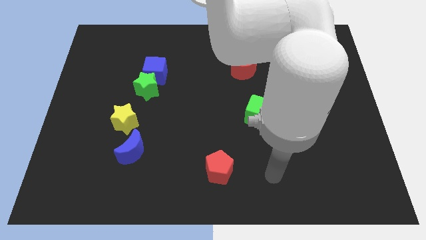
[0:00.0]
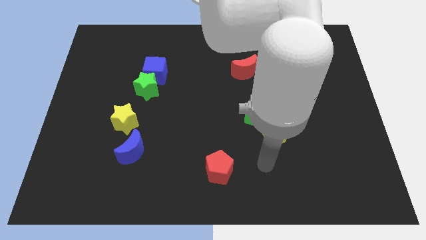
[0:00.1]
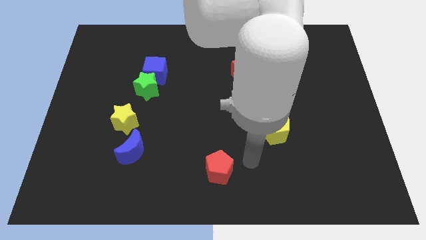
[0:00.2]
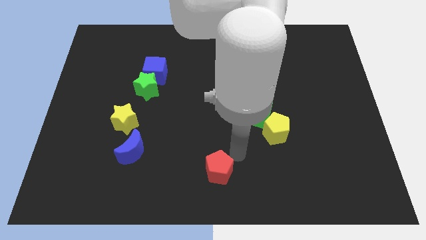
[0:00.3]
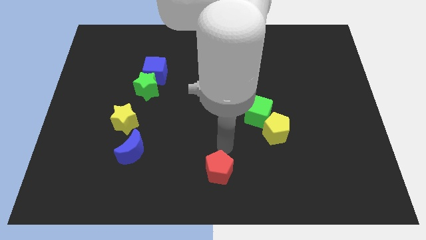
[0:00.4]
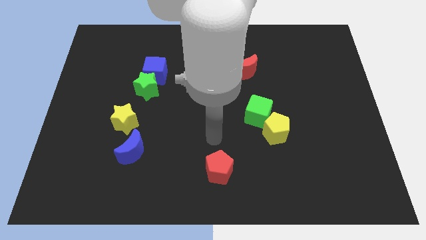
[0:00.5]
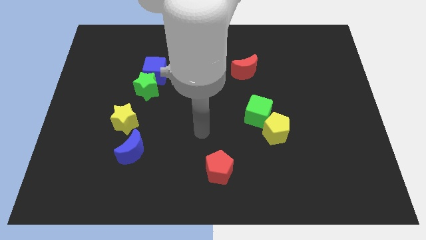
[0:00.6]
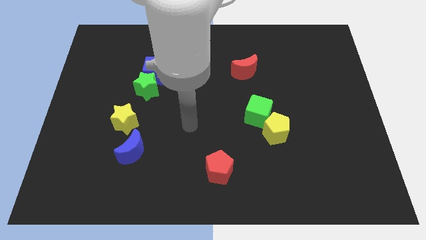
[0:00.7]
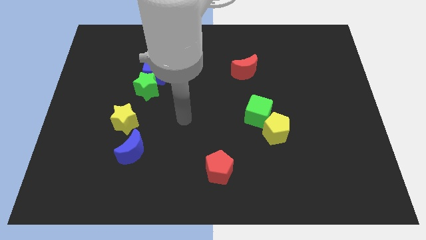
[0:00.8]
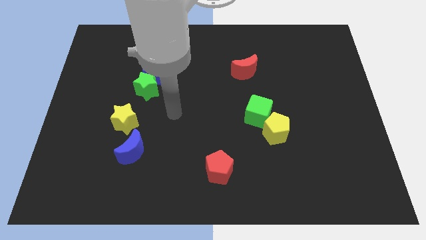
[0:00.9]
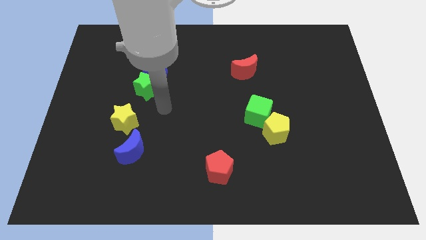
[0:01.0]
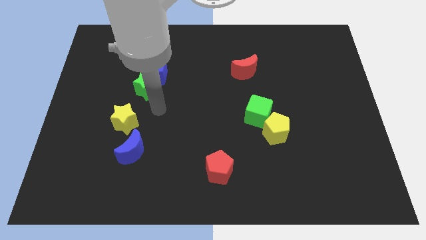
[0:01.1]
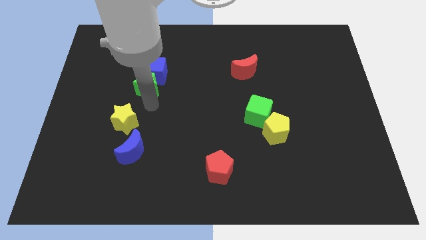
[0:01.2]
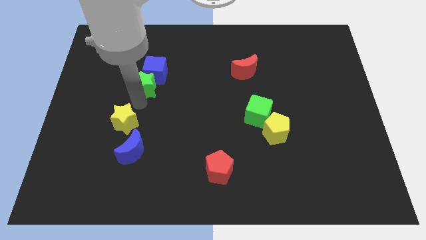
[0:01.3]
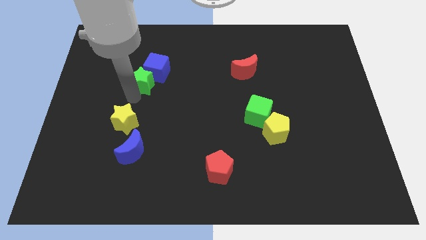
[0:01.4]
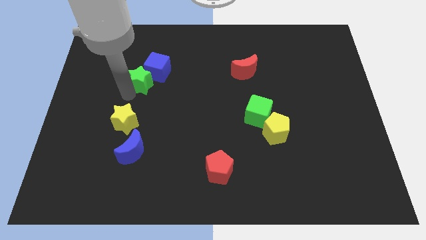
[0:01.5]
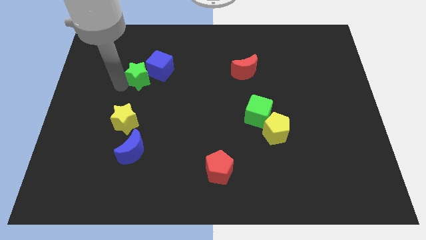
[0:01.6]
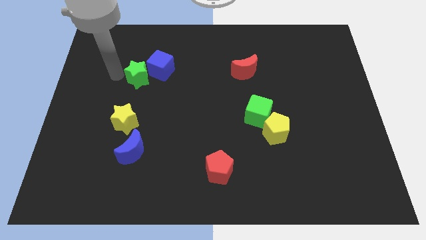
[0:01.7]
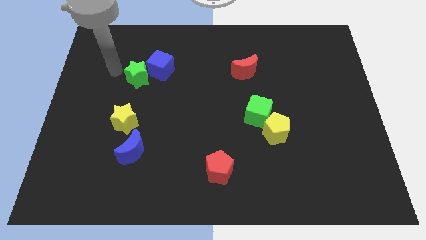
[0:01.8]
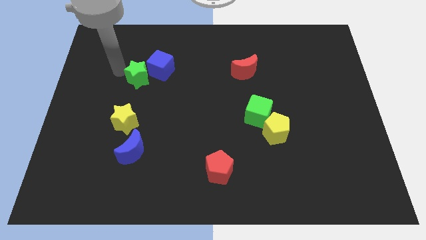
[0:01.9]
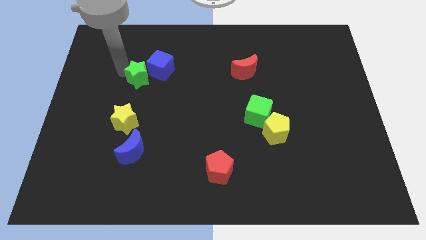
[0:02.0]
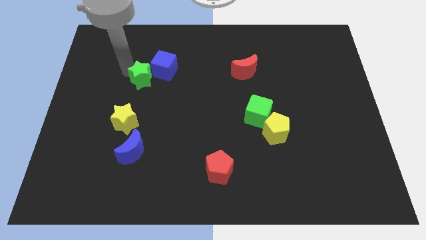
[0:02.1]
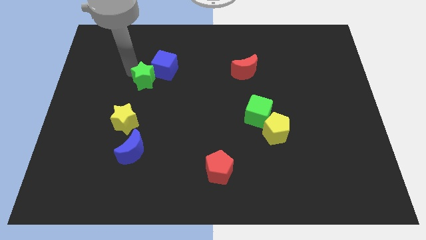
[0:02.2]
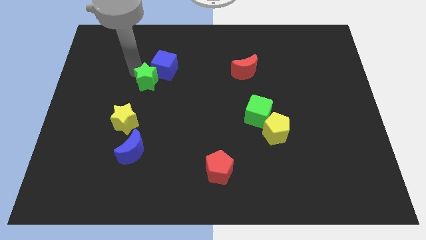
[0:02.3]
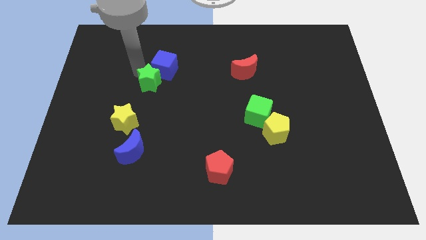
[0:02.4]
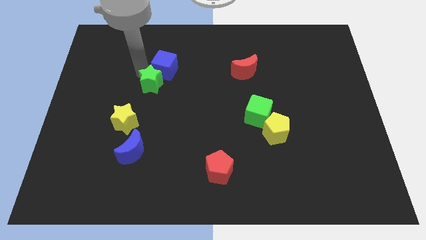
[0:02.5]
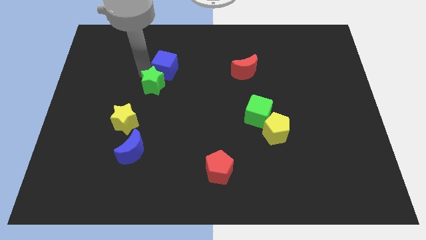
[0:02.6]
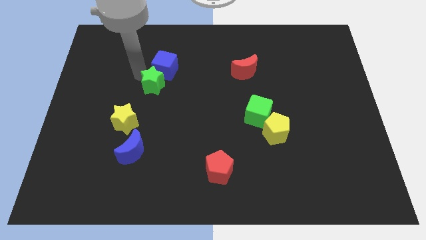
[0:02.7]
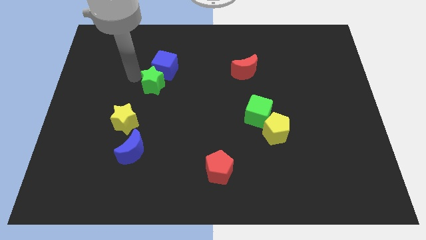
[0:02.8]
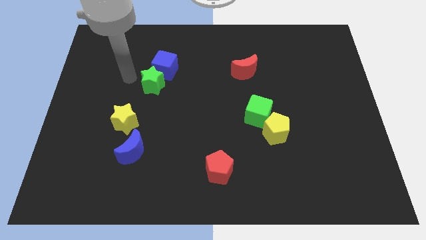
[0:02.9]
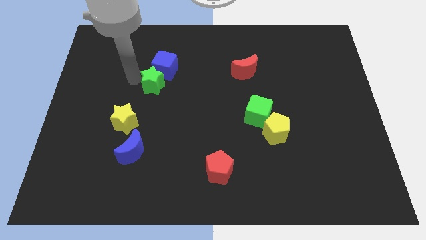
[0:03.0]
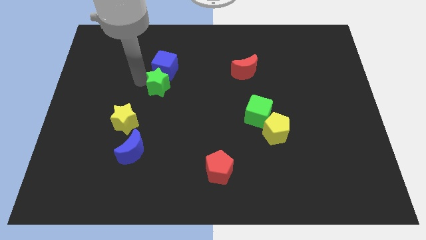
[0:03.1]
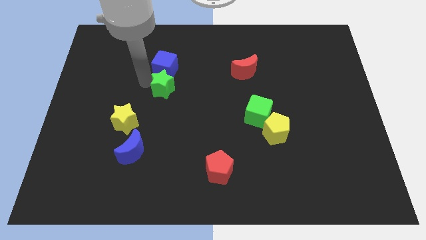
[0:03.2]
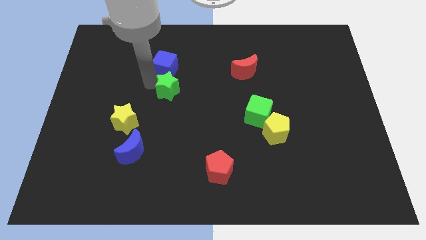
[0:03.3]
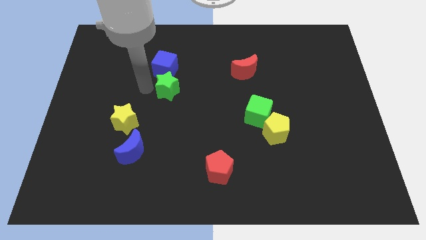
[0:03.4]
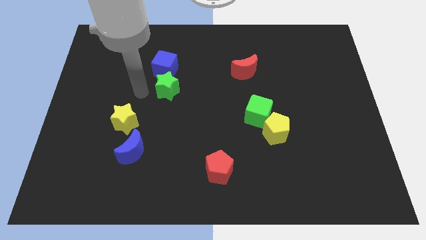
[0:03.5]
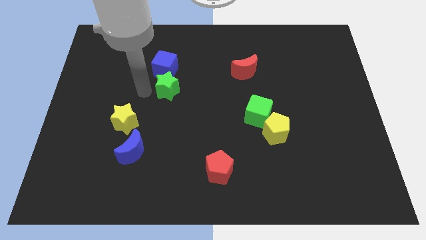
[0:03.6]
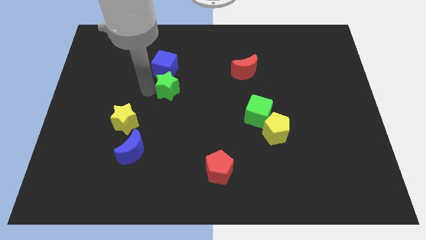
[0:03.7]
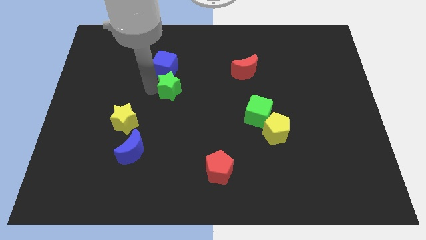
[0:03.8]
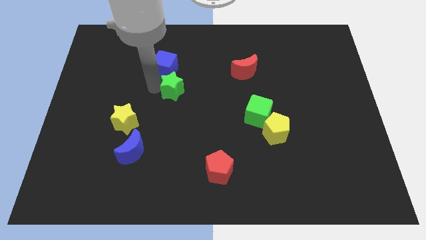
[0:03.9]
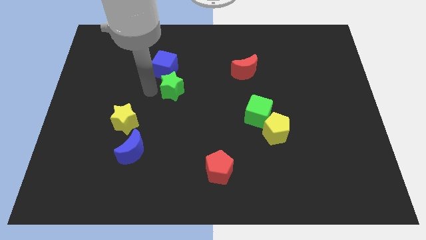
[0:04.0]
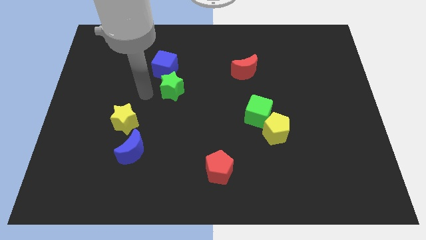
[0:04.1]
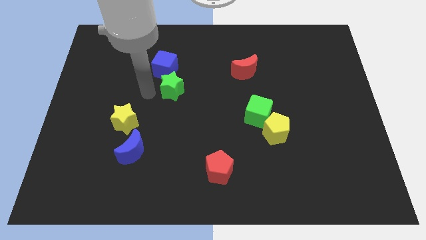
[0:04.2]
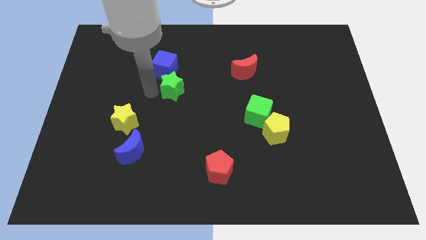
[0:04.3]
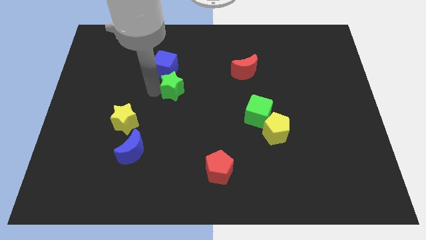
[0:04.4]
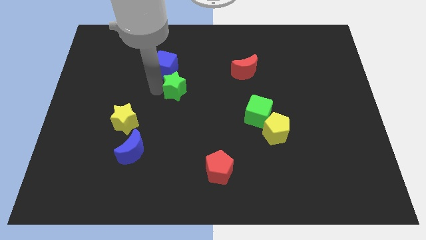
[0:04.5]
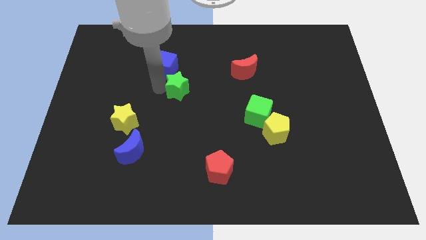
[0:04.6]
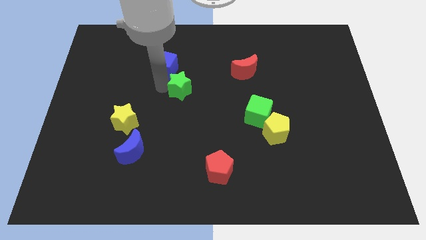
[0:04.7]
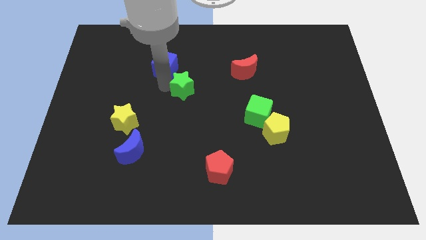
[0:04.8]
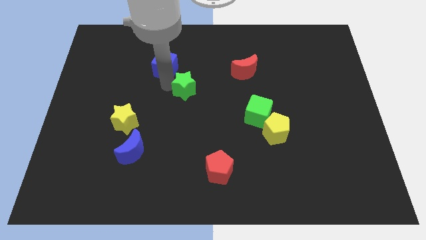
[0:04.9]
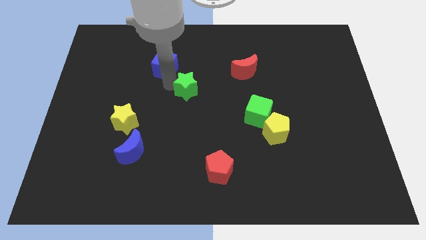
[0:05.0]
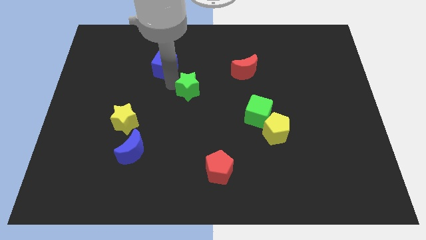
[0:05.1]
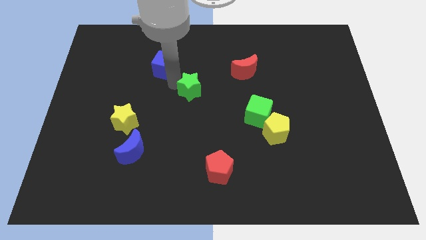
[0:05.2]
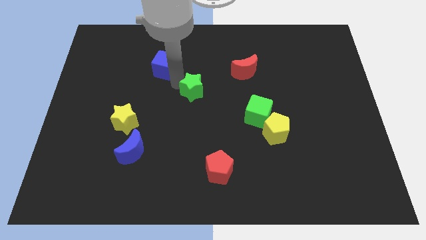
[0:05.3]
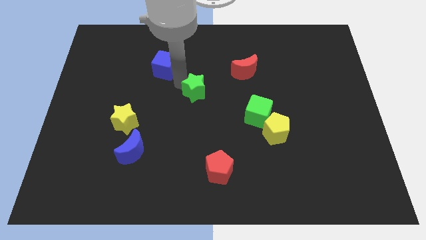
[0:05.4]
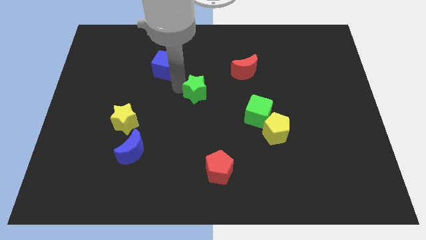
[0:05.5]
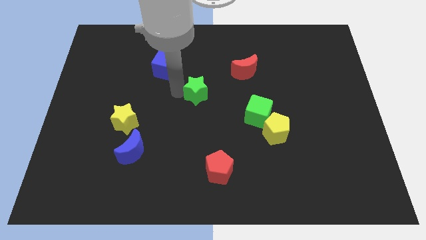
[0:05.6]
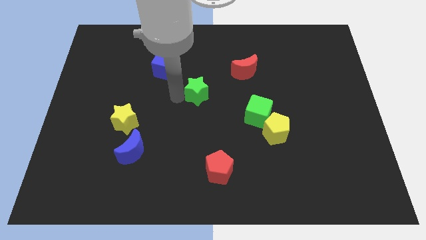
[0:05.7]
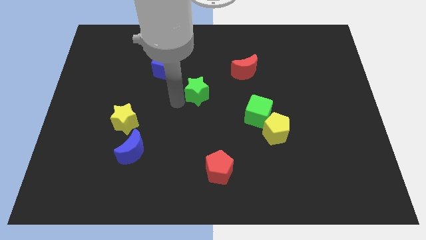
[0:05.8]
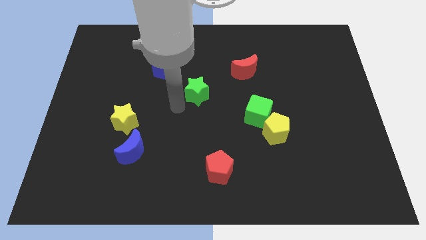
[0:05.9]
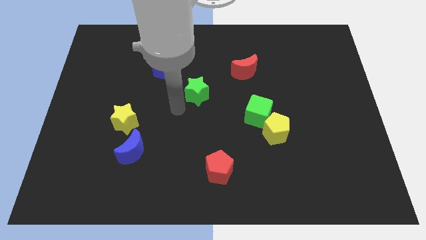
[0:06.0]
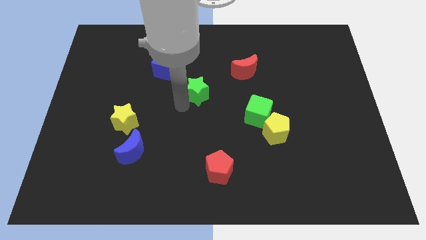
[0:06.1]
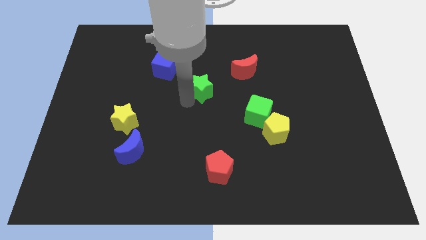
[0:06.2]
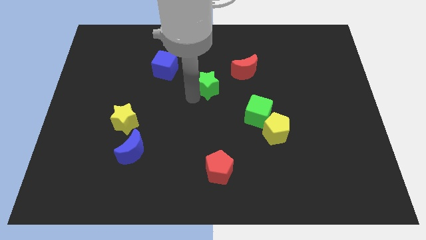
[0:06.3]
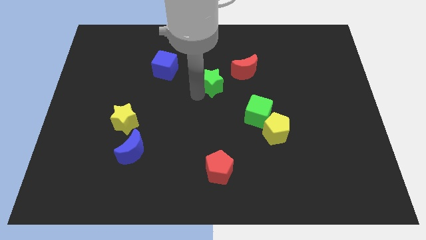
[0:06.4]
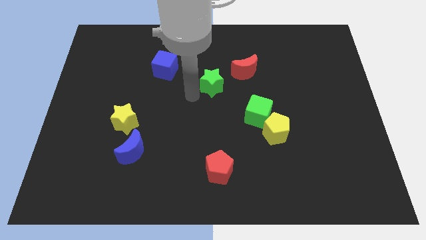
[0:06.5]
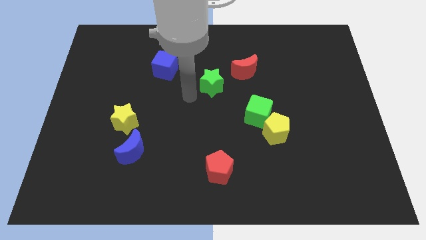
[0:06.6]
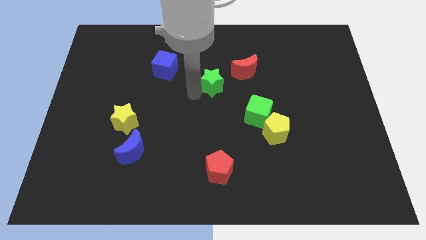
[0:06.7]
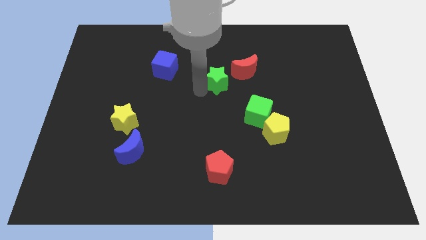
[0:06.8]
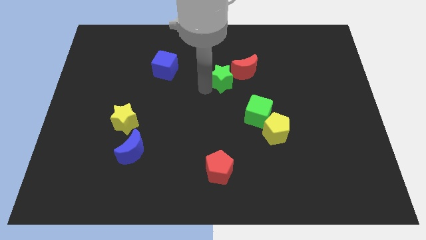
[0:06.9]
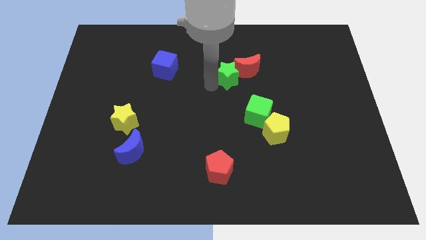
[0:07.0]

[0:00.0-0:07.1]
put the green star towards the red moon

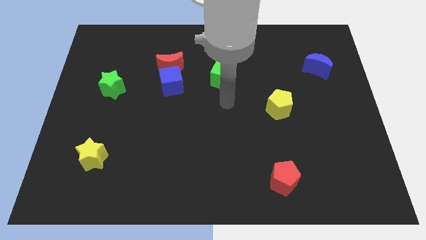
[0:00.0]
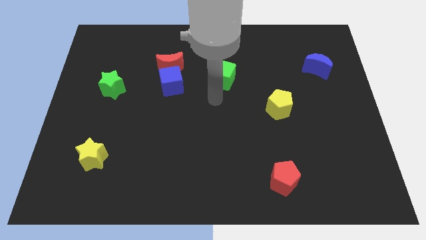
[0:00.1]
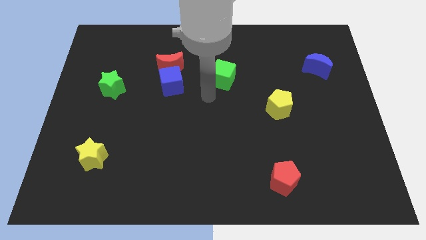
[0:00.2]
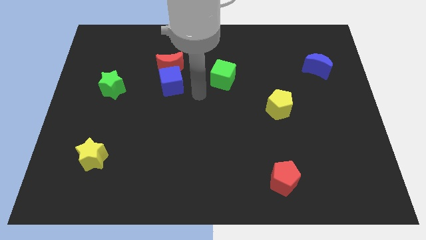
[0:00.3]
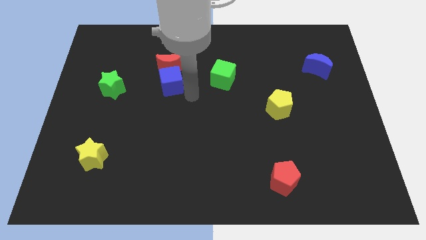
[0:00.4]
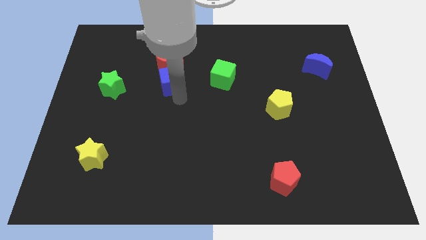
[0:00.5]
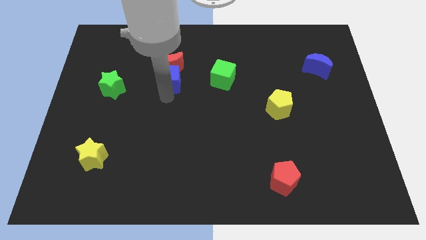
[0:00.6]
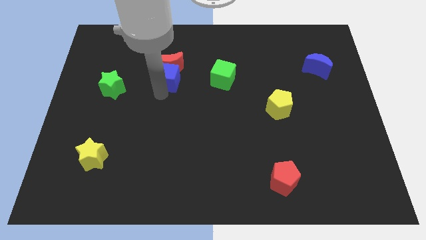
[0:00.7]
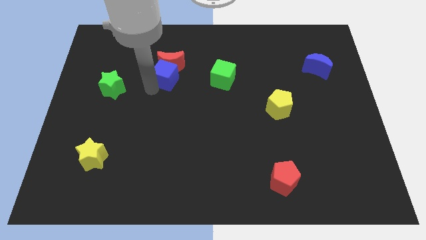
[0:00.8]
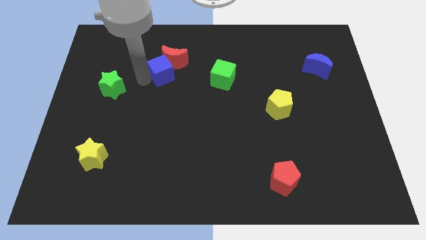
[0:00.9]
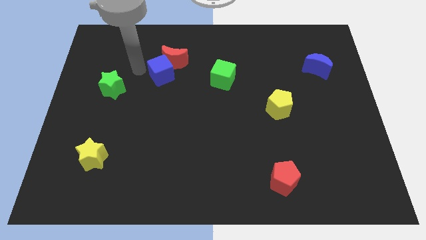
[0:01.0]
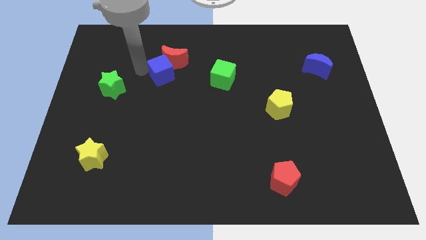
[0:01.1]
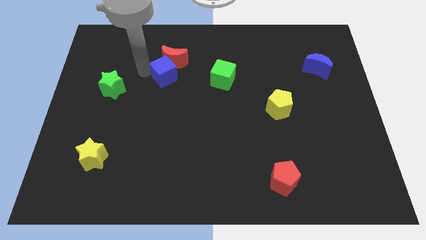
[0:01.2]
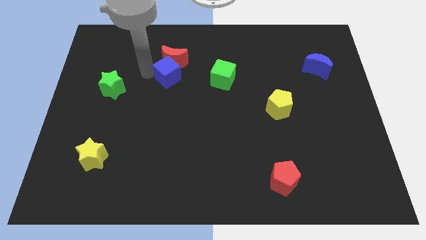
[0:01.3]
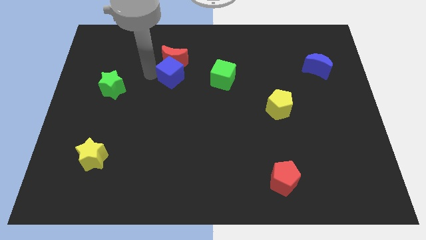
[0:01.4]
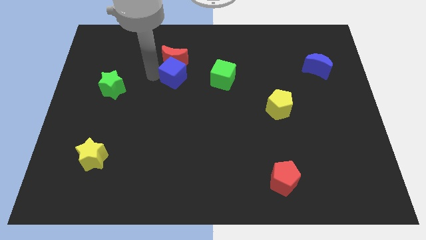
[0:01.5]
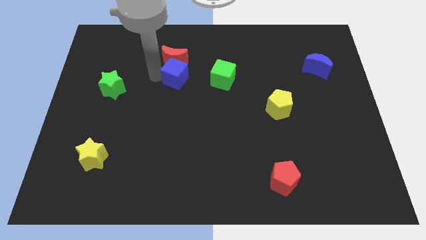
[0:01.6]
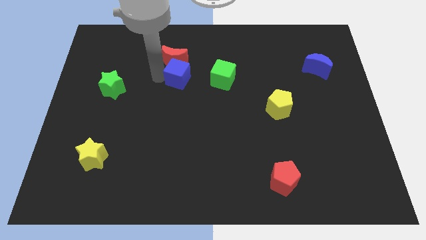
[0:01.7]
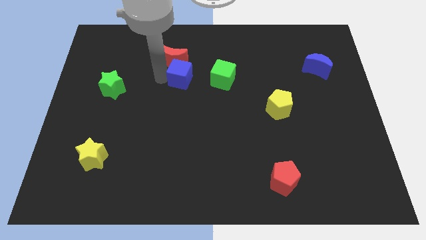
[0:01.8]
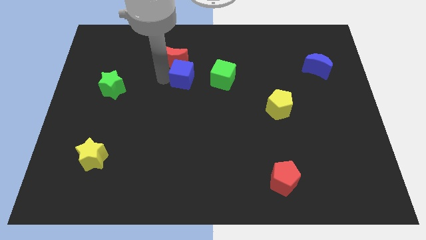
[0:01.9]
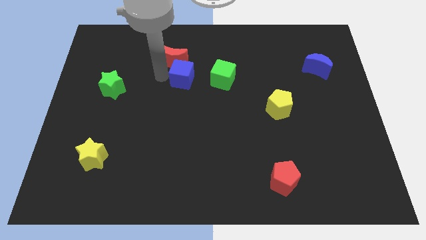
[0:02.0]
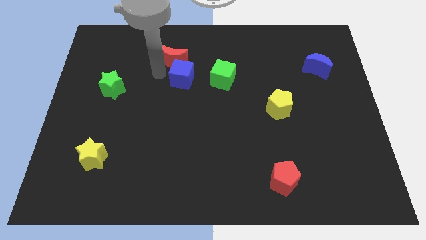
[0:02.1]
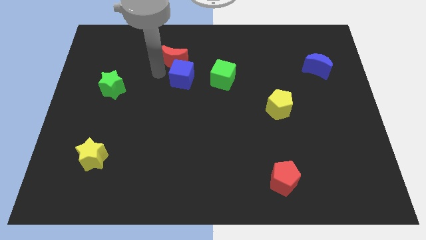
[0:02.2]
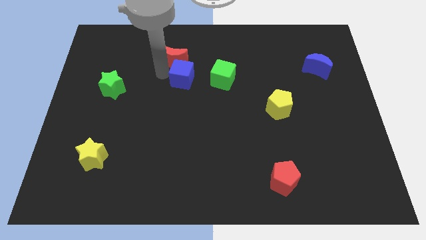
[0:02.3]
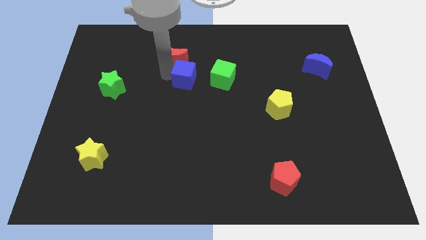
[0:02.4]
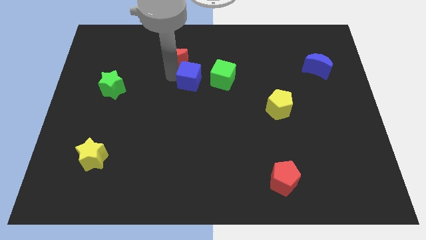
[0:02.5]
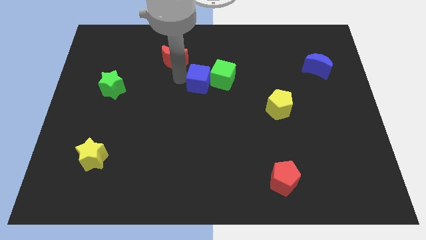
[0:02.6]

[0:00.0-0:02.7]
put the blue cube to the green cube
